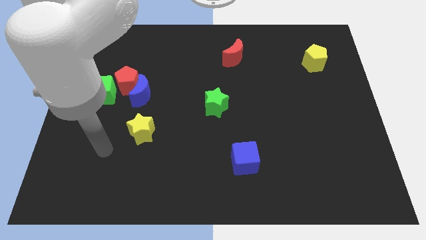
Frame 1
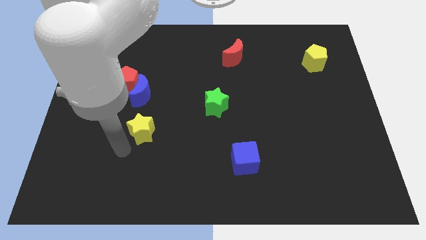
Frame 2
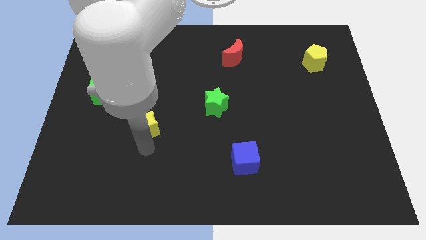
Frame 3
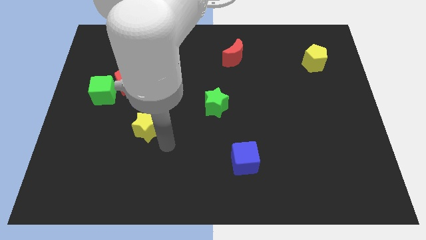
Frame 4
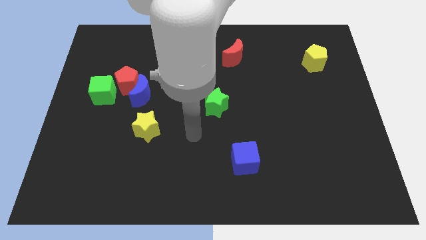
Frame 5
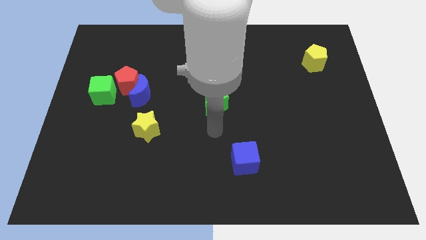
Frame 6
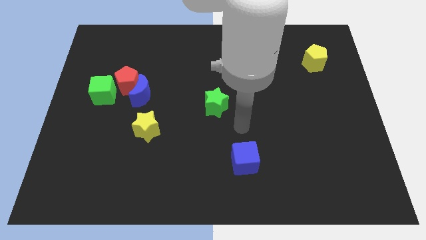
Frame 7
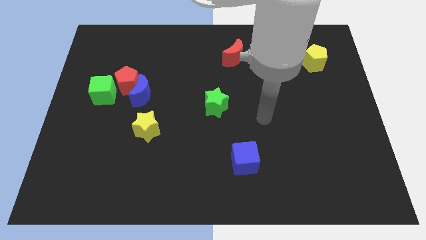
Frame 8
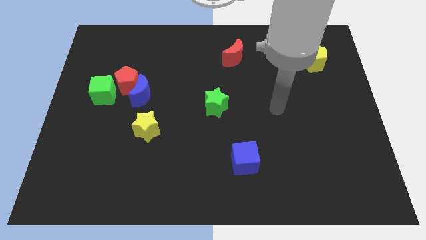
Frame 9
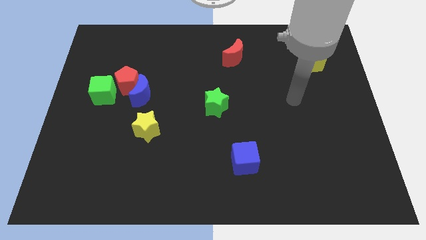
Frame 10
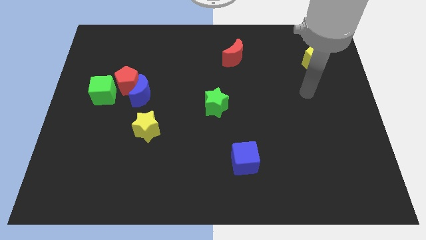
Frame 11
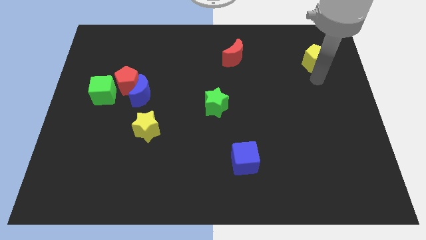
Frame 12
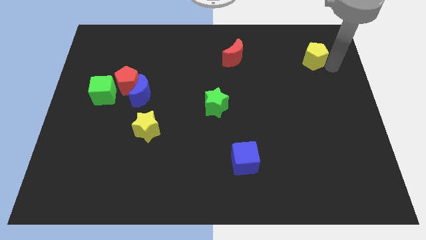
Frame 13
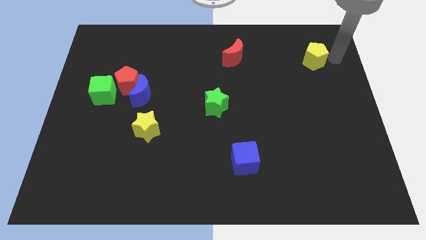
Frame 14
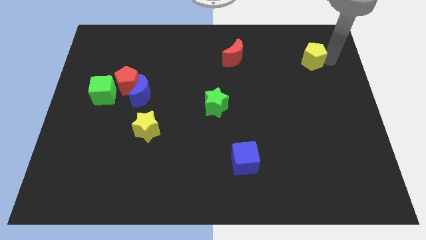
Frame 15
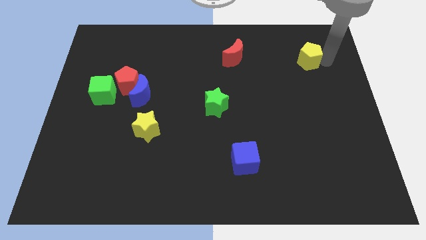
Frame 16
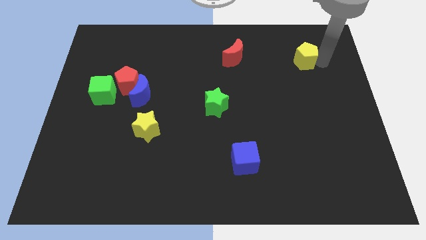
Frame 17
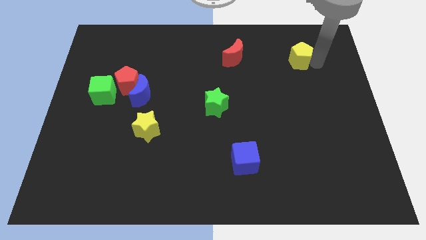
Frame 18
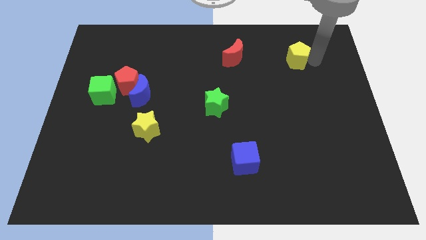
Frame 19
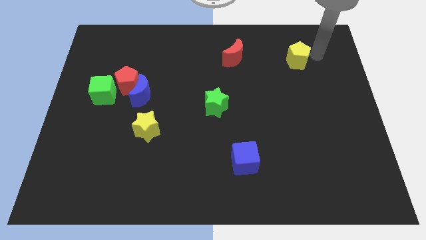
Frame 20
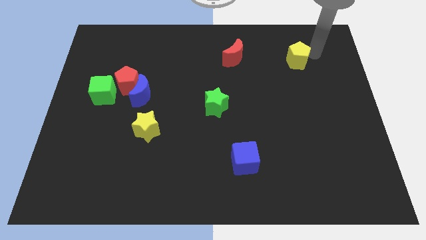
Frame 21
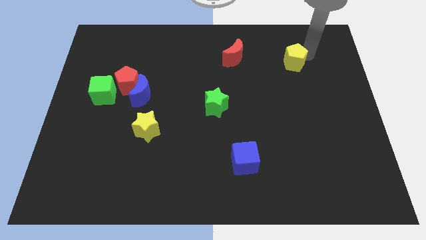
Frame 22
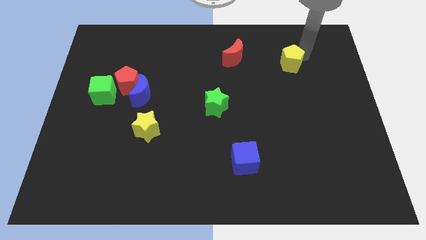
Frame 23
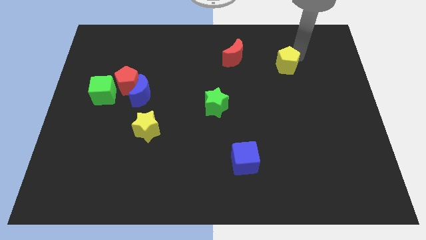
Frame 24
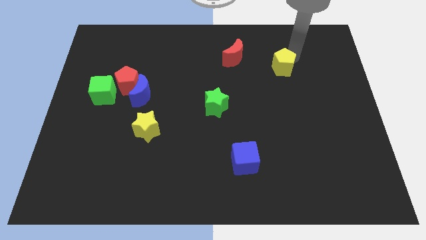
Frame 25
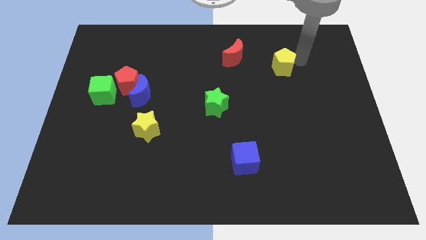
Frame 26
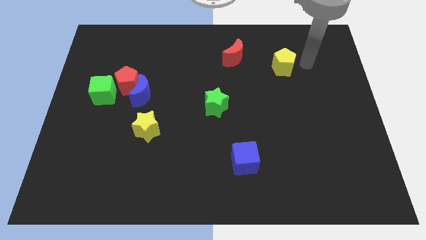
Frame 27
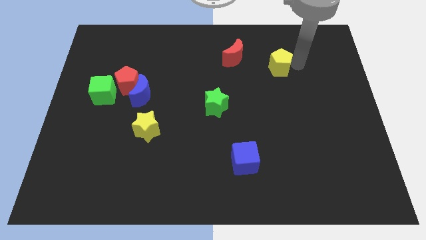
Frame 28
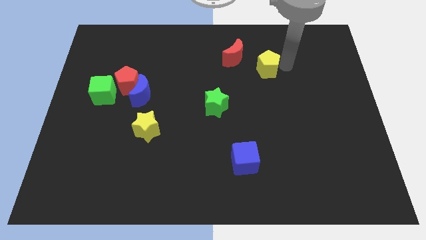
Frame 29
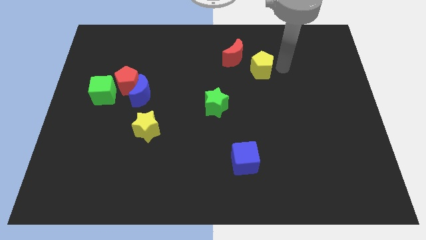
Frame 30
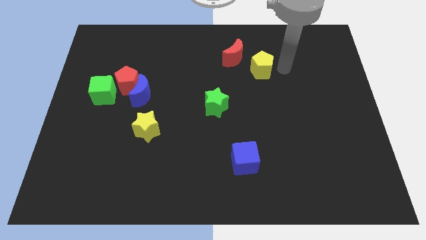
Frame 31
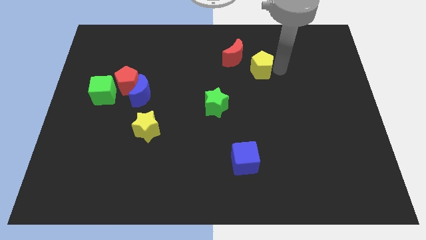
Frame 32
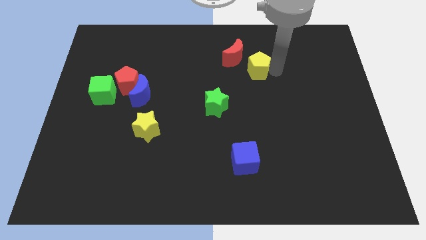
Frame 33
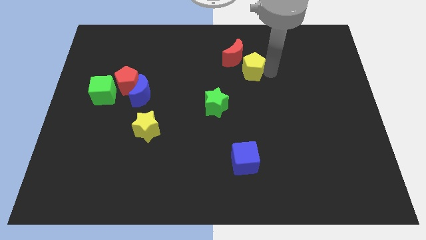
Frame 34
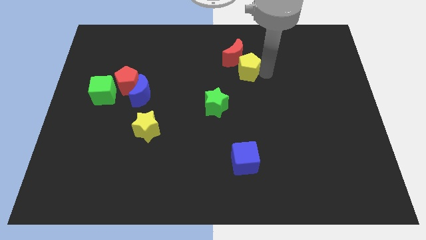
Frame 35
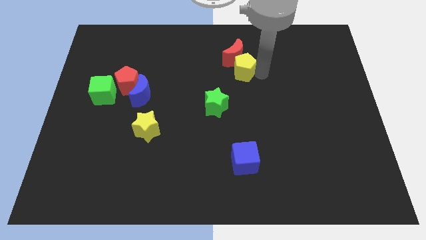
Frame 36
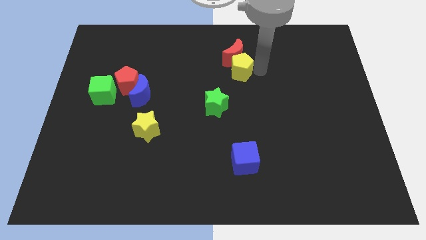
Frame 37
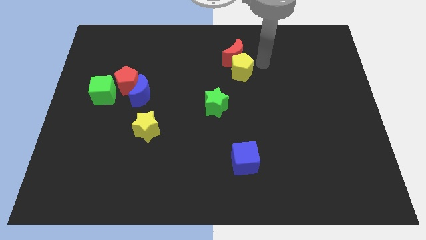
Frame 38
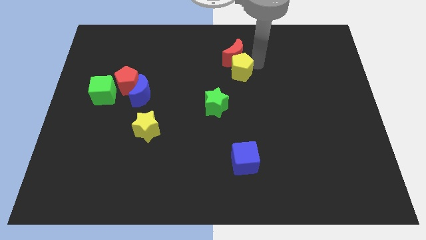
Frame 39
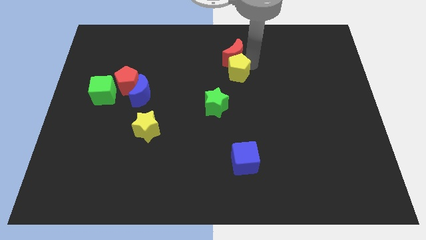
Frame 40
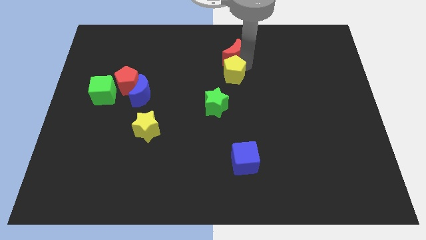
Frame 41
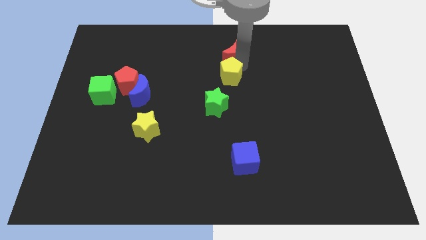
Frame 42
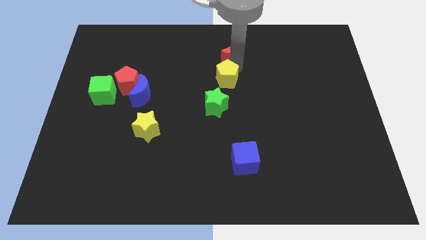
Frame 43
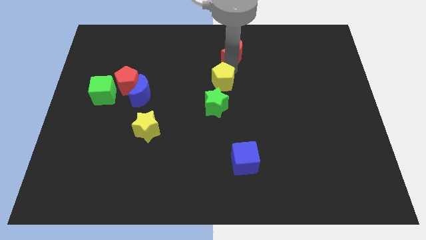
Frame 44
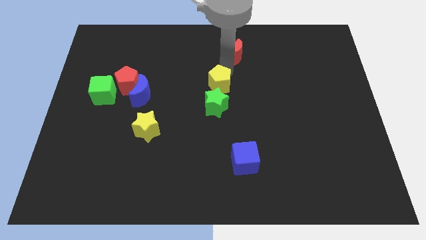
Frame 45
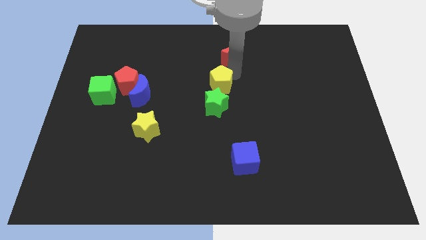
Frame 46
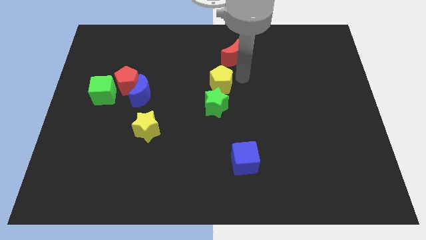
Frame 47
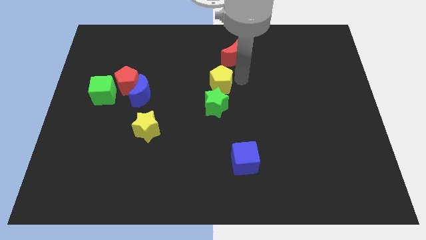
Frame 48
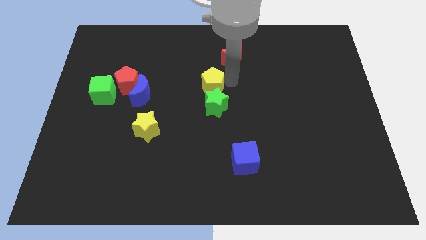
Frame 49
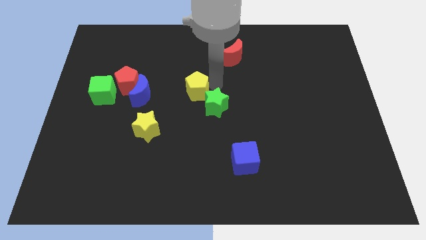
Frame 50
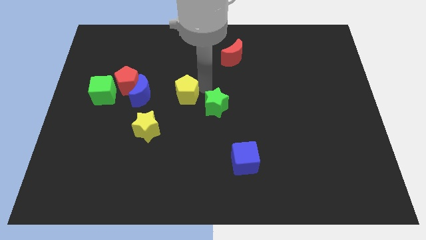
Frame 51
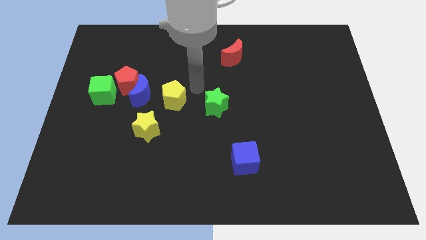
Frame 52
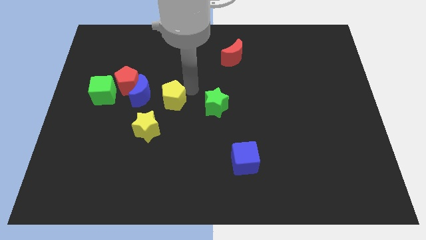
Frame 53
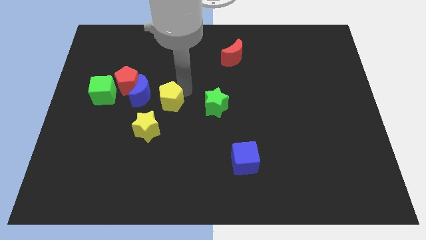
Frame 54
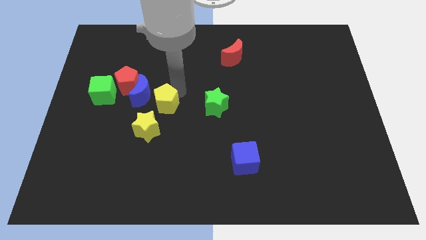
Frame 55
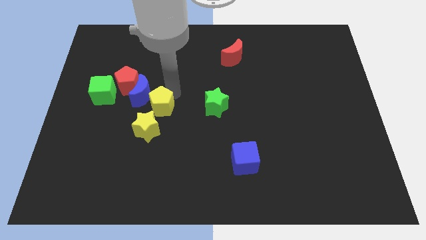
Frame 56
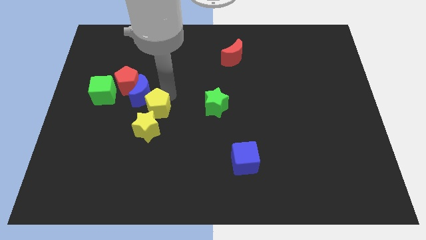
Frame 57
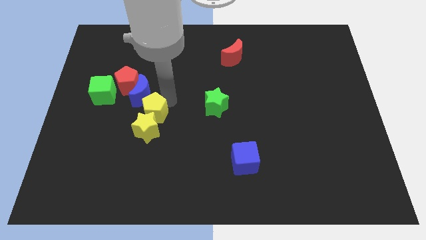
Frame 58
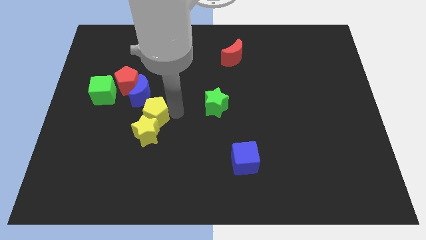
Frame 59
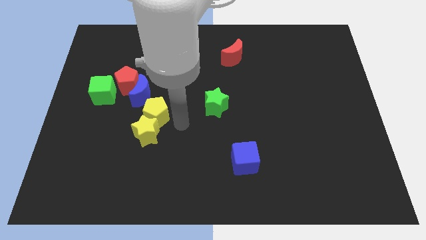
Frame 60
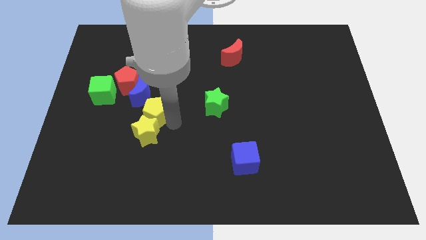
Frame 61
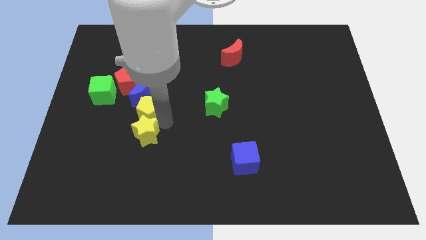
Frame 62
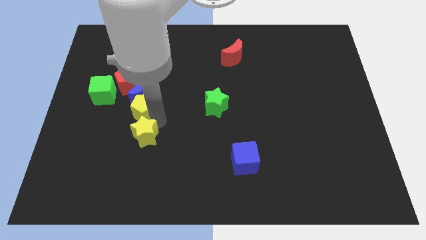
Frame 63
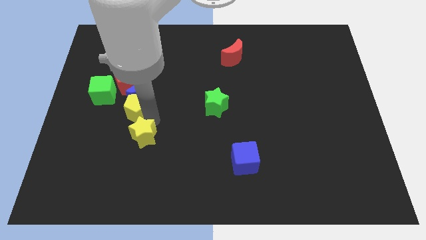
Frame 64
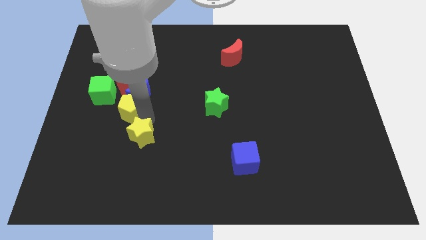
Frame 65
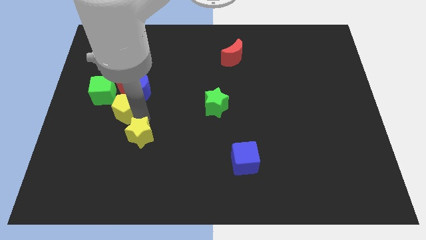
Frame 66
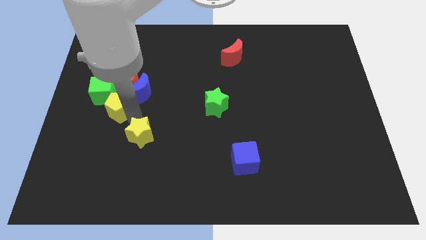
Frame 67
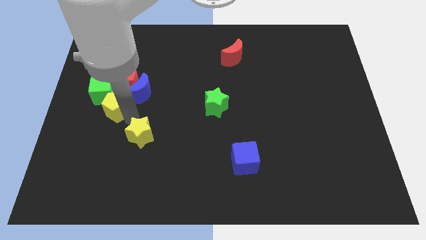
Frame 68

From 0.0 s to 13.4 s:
put the yellow pentagon next to the green cube

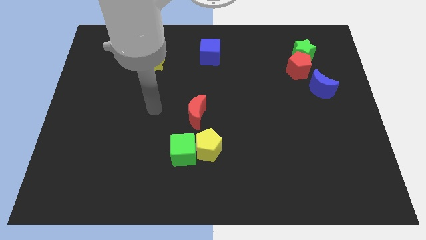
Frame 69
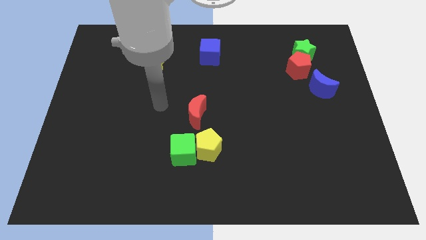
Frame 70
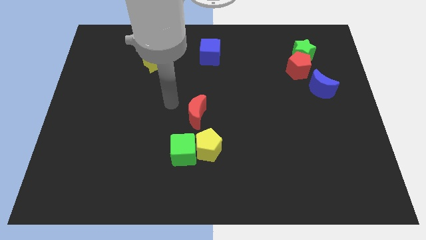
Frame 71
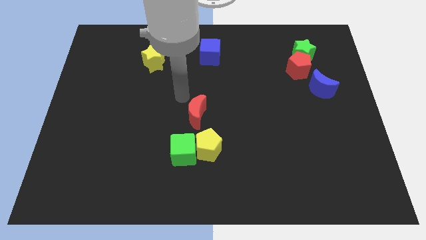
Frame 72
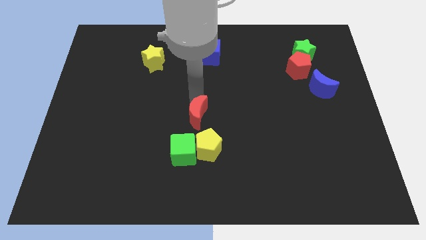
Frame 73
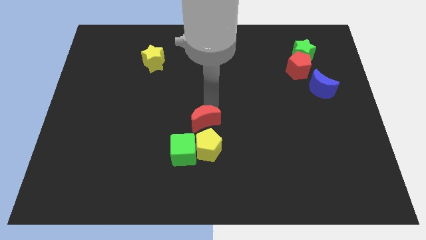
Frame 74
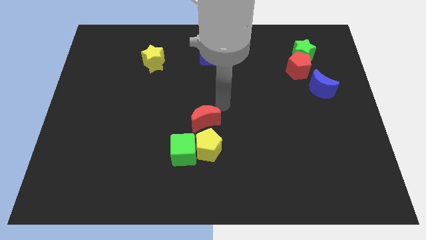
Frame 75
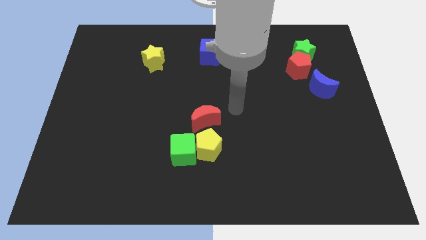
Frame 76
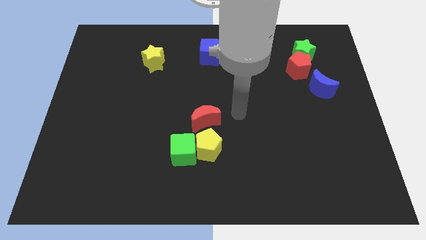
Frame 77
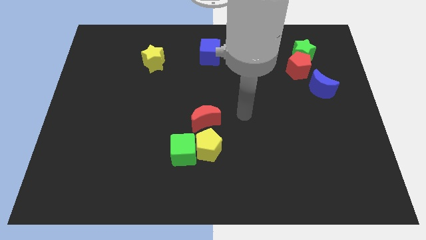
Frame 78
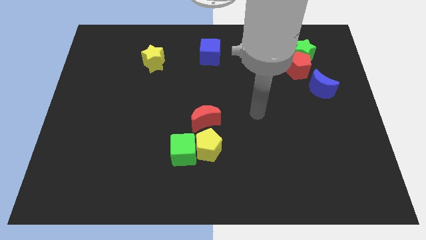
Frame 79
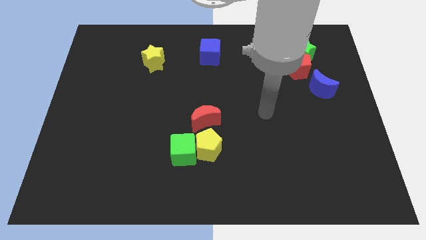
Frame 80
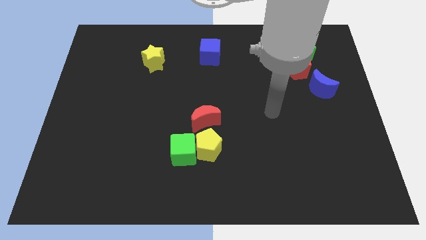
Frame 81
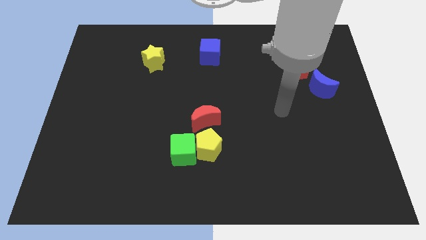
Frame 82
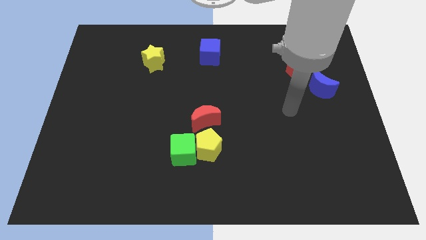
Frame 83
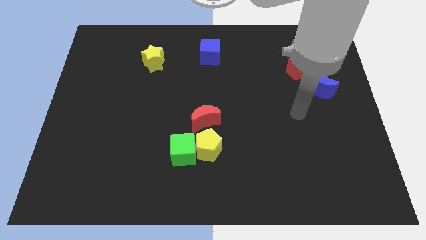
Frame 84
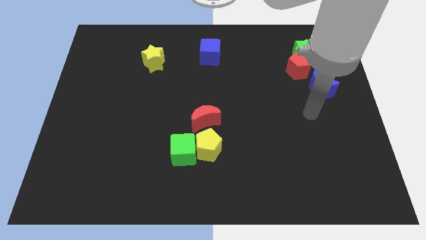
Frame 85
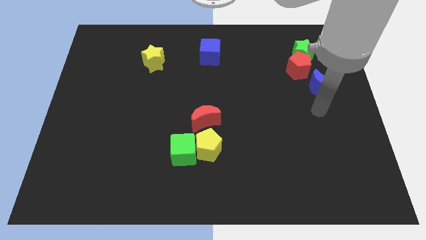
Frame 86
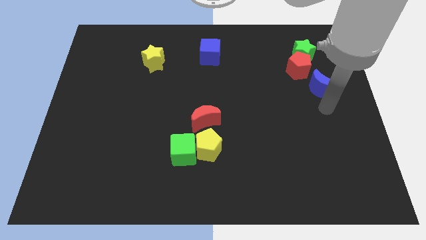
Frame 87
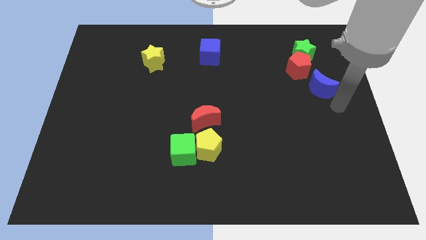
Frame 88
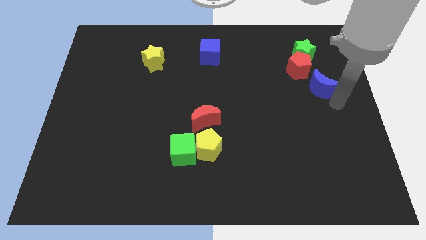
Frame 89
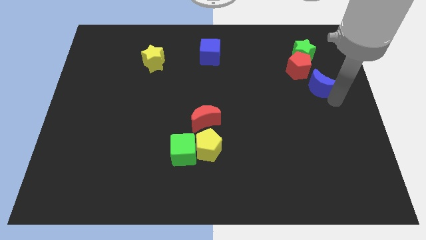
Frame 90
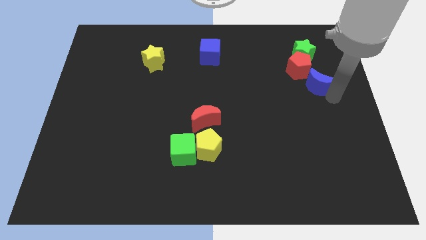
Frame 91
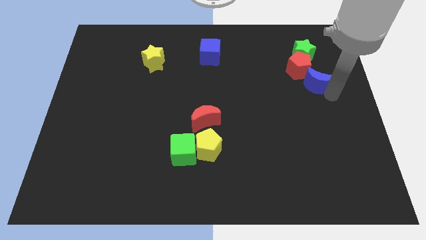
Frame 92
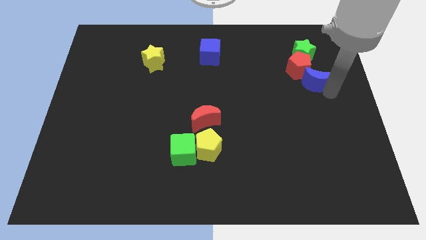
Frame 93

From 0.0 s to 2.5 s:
put the blue moon towards the red pentagon
